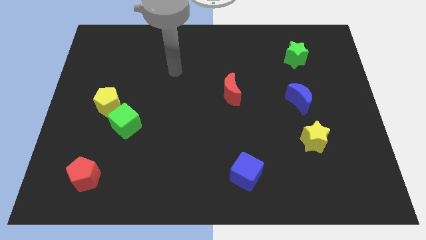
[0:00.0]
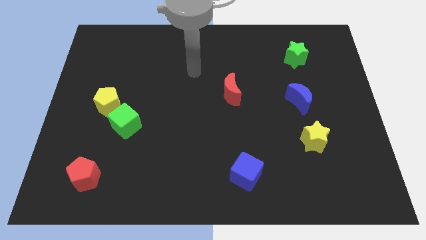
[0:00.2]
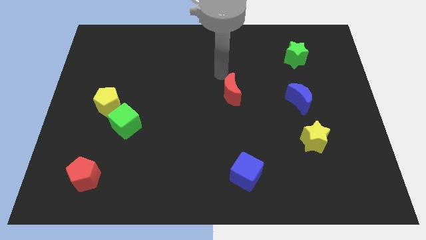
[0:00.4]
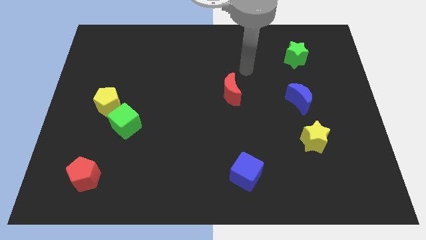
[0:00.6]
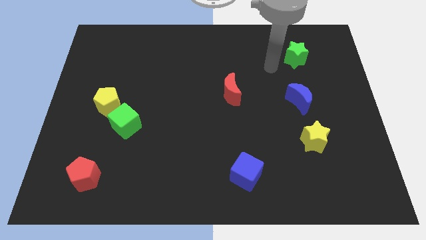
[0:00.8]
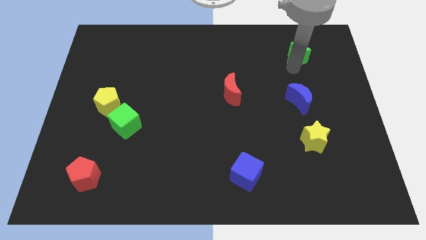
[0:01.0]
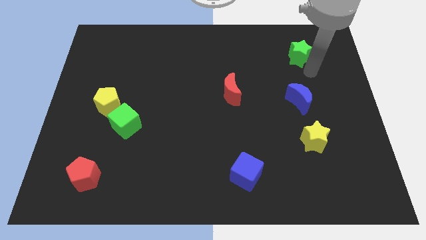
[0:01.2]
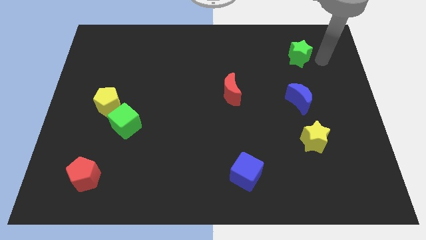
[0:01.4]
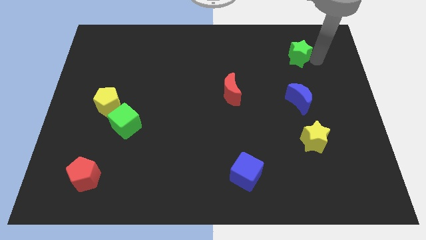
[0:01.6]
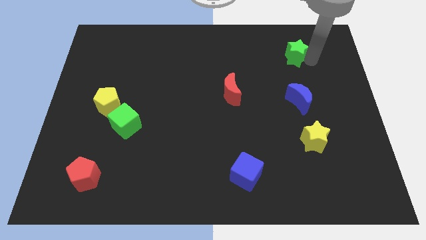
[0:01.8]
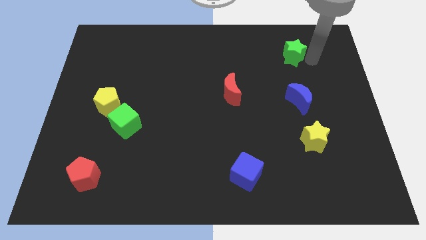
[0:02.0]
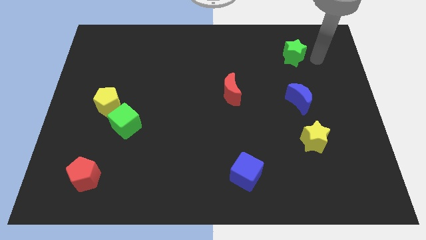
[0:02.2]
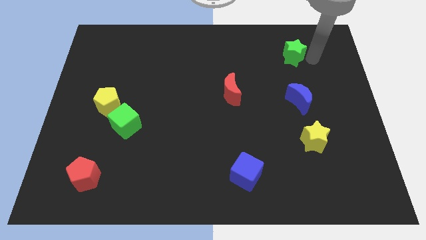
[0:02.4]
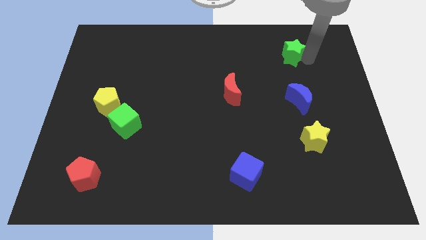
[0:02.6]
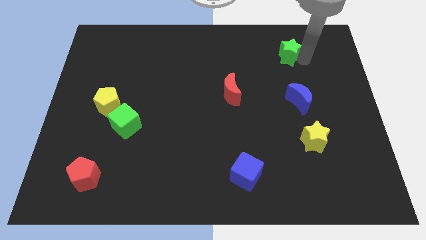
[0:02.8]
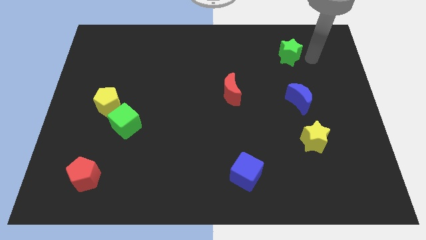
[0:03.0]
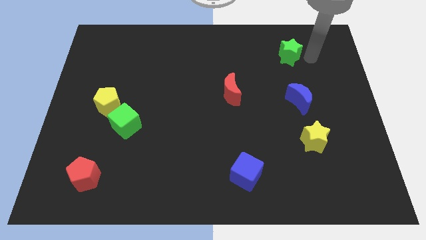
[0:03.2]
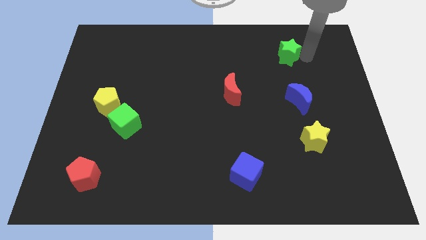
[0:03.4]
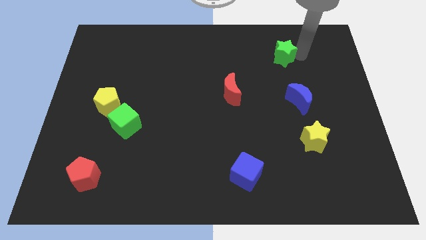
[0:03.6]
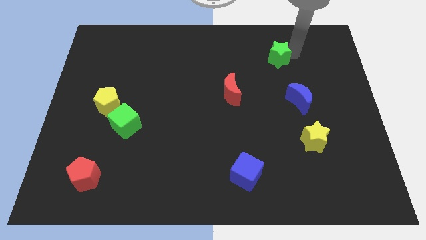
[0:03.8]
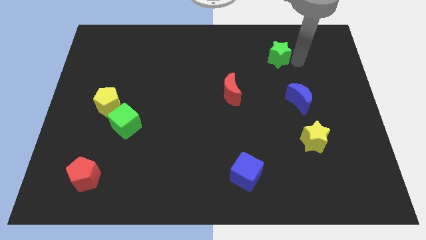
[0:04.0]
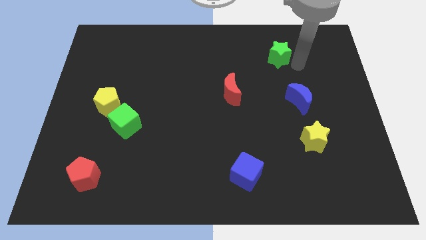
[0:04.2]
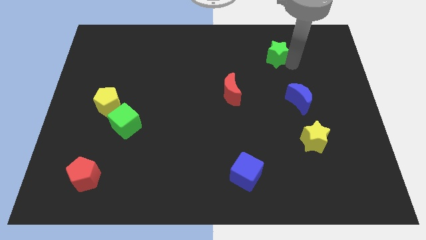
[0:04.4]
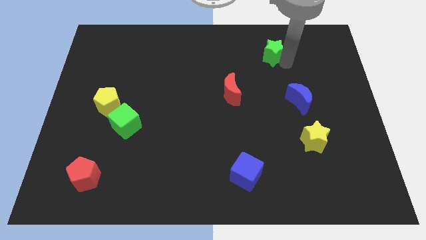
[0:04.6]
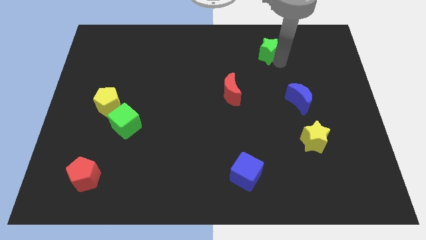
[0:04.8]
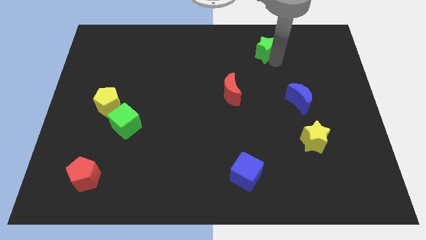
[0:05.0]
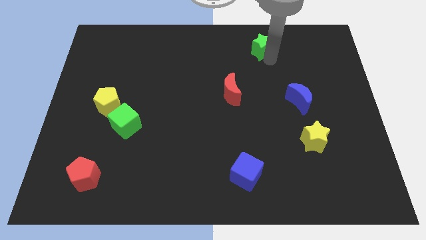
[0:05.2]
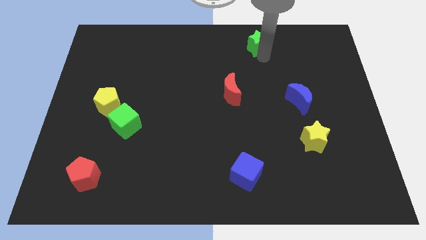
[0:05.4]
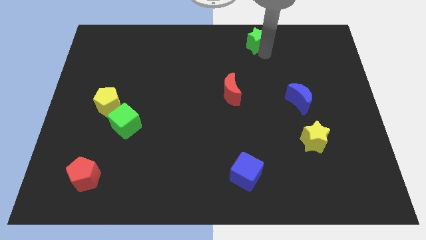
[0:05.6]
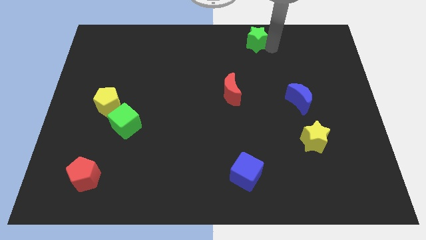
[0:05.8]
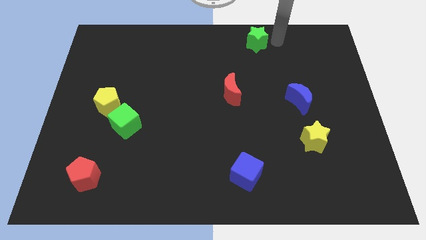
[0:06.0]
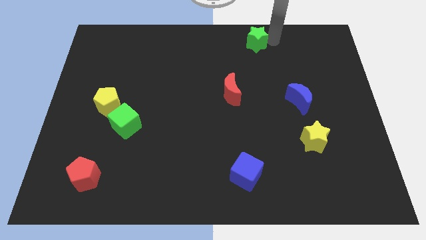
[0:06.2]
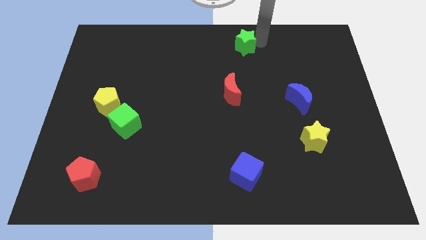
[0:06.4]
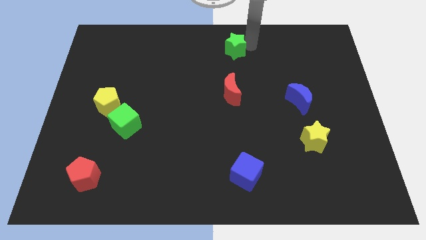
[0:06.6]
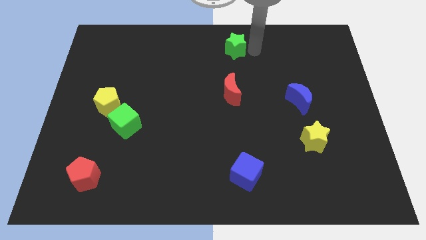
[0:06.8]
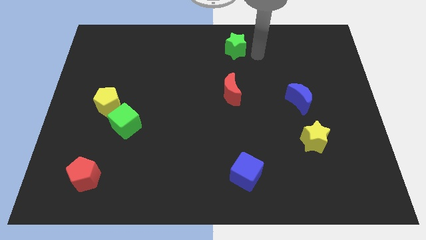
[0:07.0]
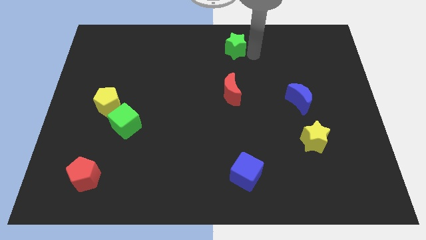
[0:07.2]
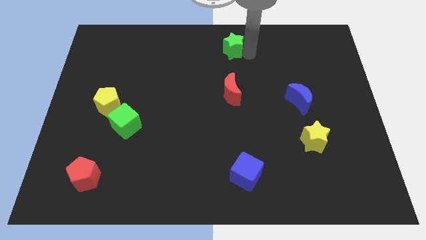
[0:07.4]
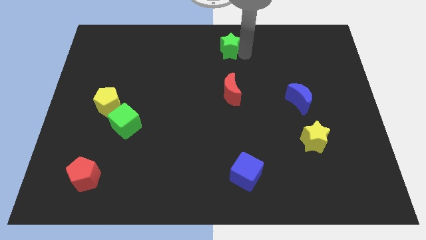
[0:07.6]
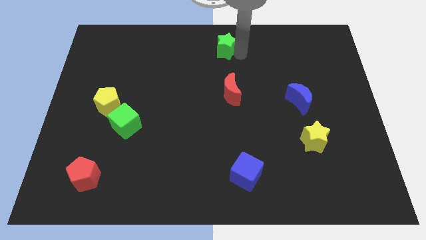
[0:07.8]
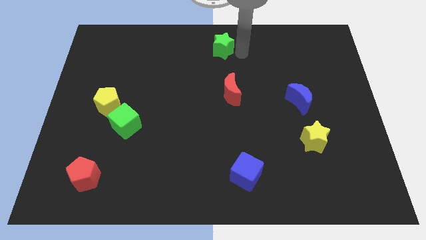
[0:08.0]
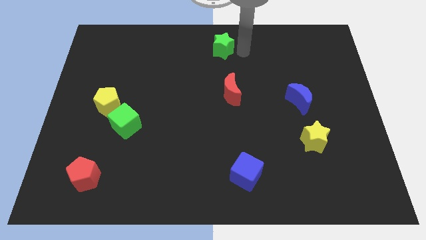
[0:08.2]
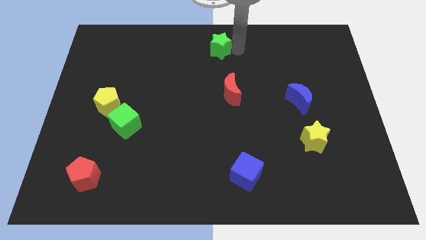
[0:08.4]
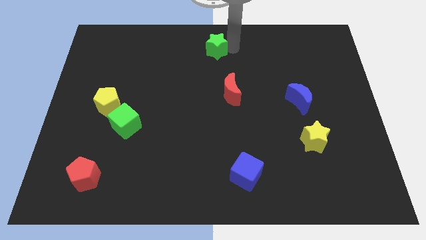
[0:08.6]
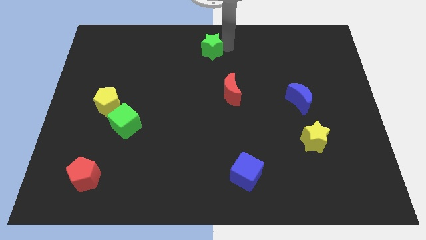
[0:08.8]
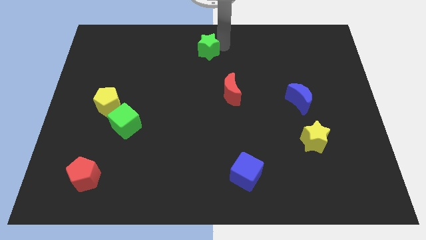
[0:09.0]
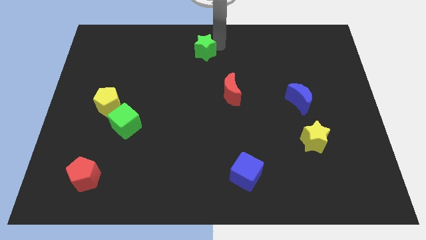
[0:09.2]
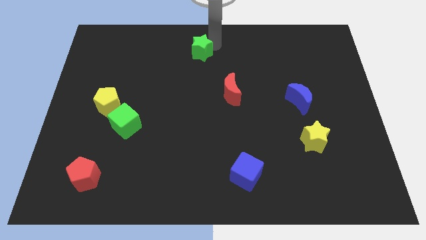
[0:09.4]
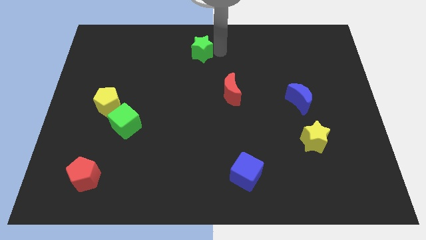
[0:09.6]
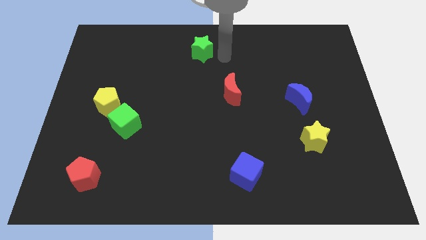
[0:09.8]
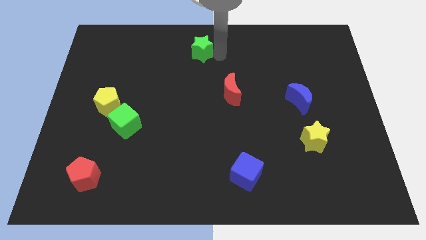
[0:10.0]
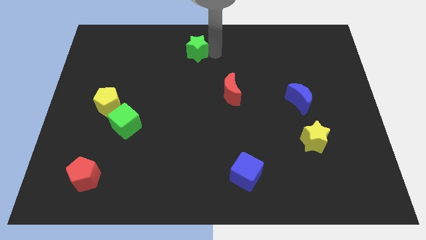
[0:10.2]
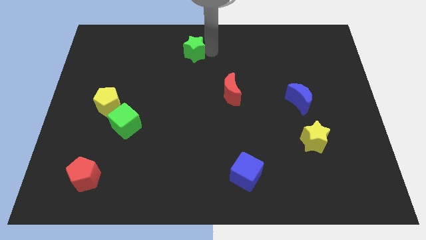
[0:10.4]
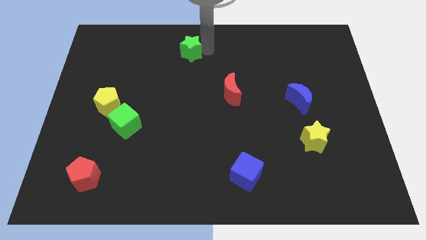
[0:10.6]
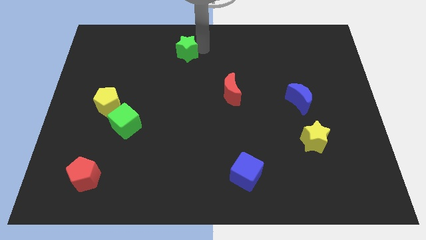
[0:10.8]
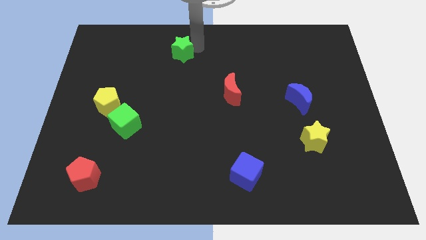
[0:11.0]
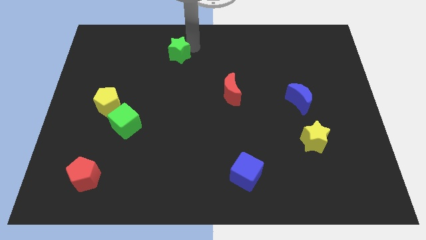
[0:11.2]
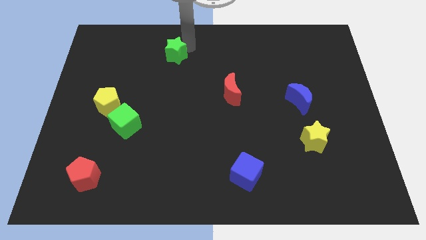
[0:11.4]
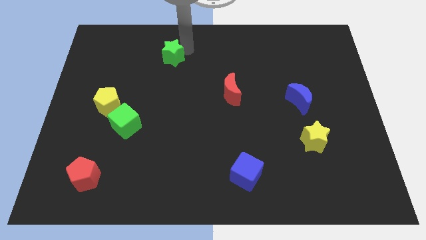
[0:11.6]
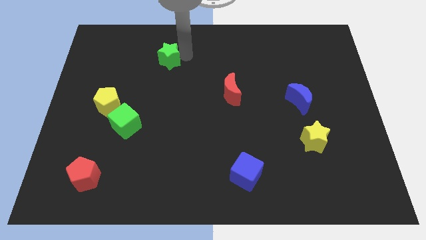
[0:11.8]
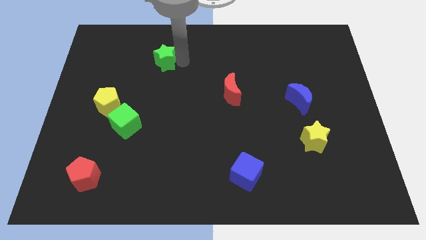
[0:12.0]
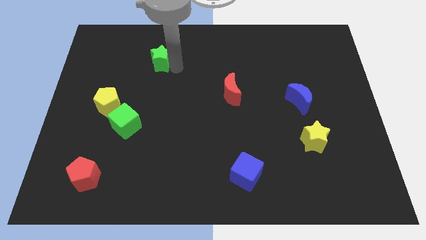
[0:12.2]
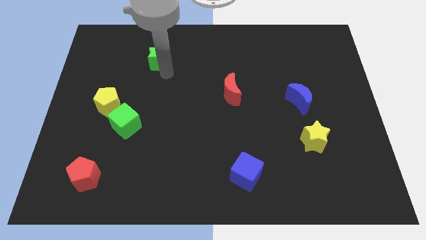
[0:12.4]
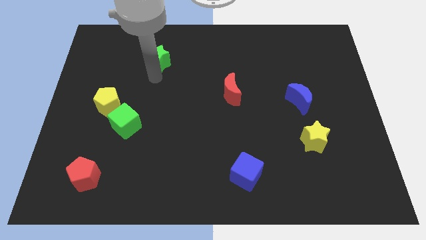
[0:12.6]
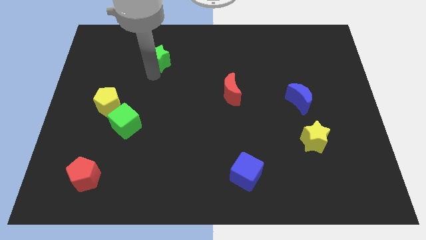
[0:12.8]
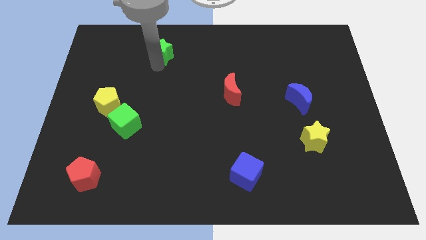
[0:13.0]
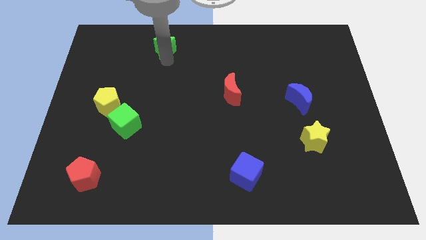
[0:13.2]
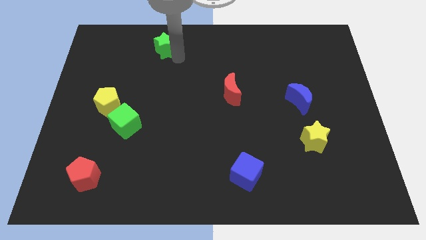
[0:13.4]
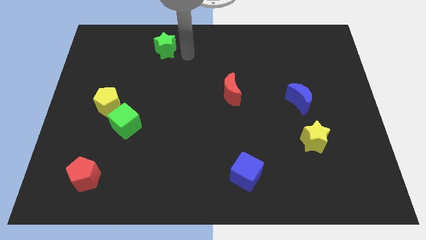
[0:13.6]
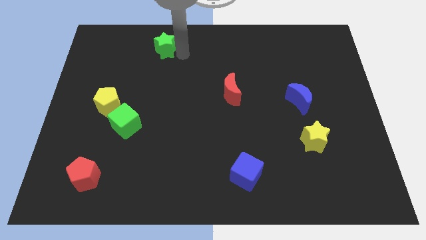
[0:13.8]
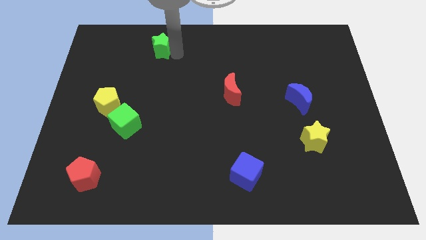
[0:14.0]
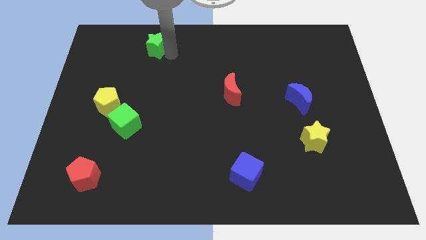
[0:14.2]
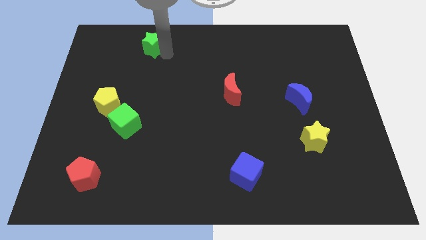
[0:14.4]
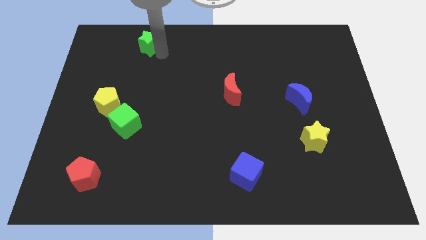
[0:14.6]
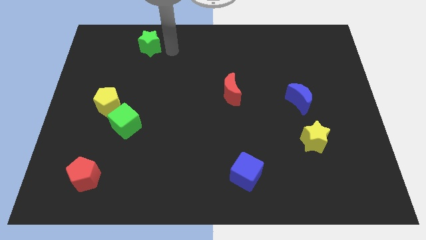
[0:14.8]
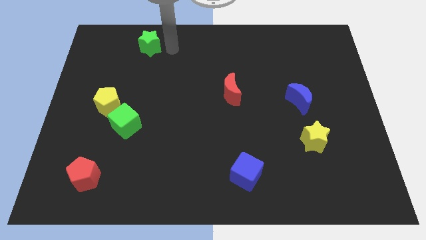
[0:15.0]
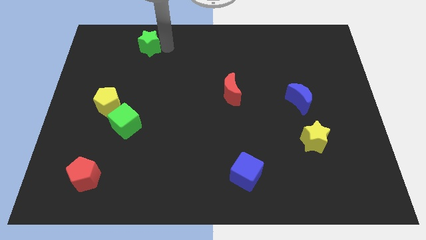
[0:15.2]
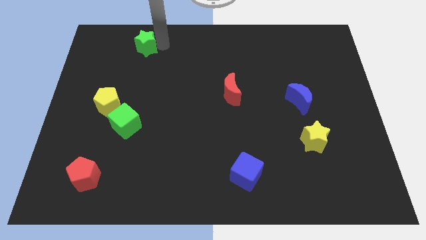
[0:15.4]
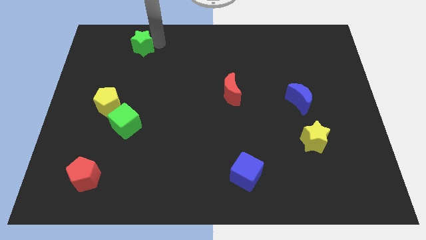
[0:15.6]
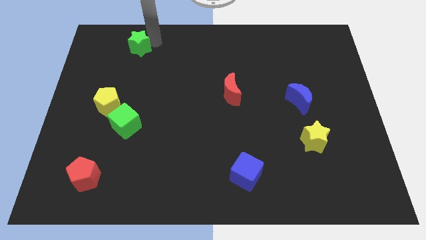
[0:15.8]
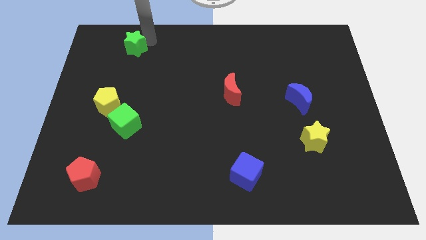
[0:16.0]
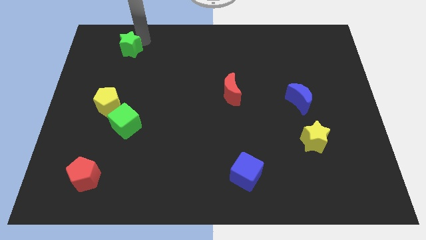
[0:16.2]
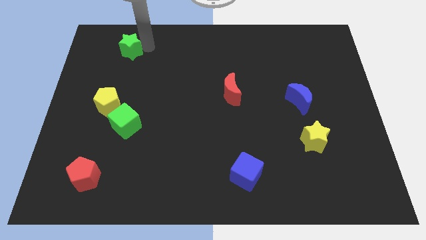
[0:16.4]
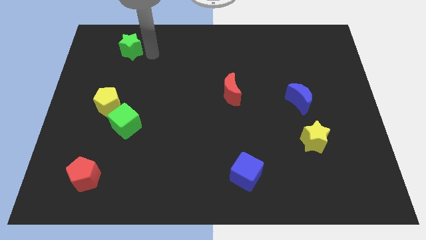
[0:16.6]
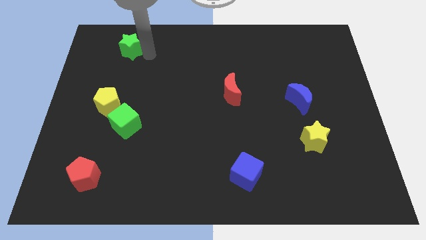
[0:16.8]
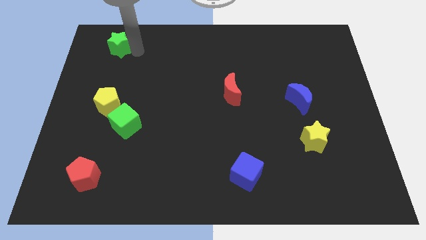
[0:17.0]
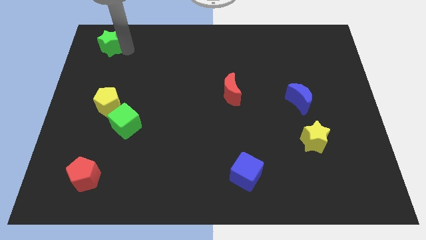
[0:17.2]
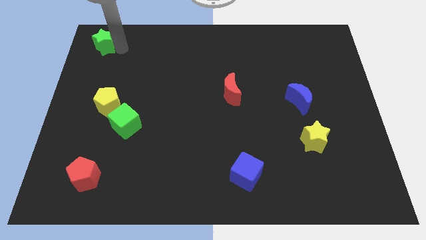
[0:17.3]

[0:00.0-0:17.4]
put the green star to the top left corner
